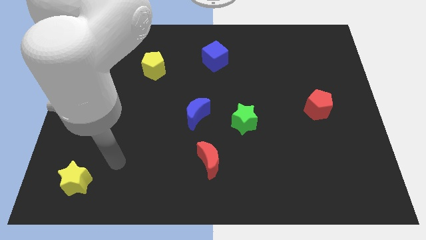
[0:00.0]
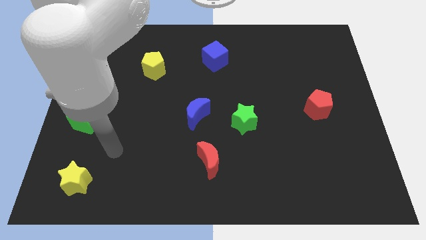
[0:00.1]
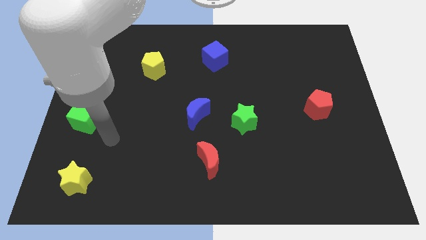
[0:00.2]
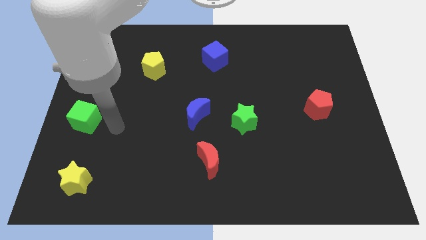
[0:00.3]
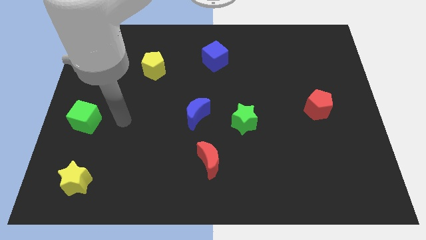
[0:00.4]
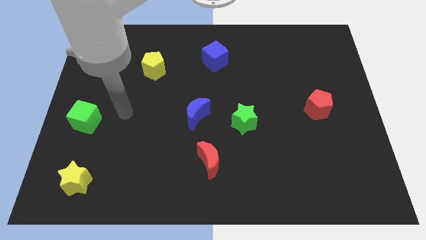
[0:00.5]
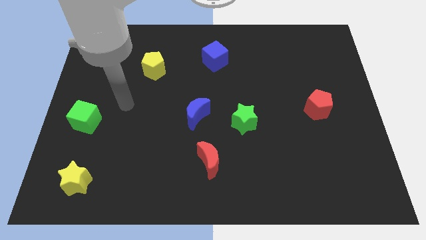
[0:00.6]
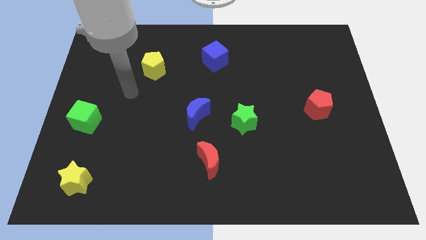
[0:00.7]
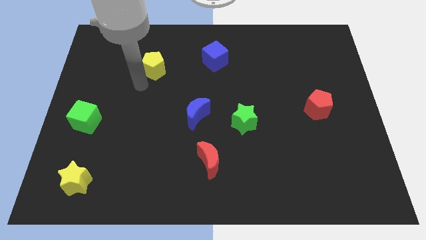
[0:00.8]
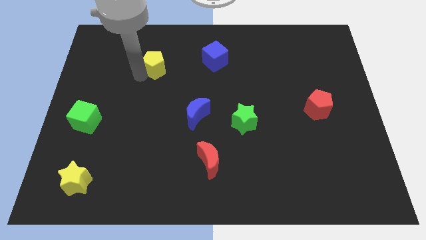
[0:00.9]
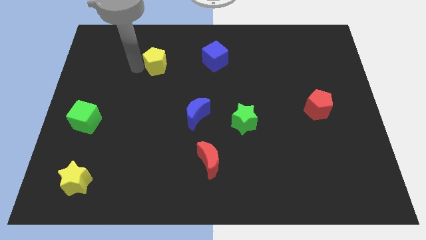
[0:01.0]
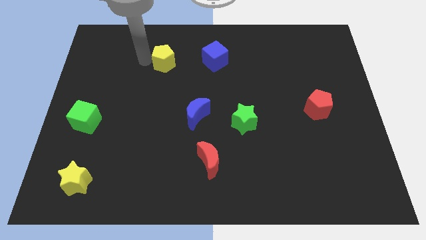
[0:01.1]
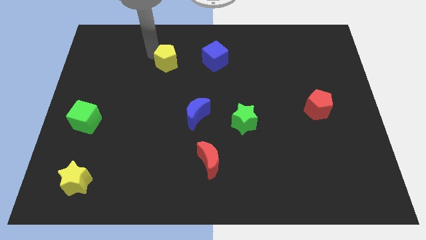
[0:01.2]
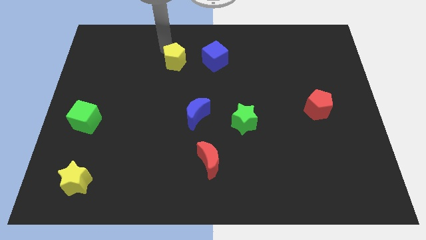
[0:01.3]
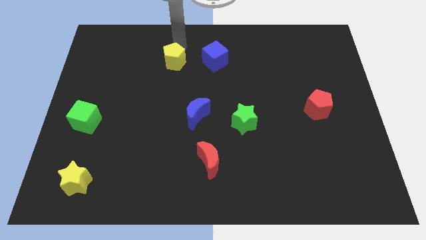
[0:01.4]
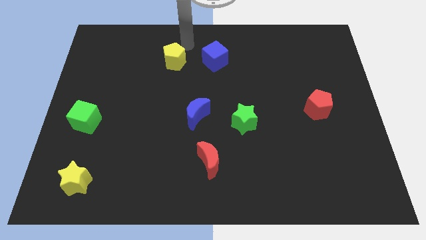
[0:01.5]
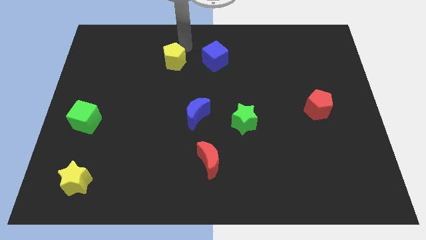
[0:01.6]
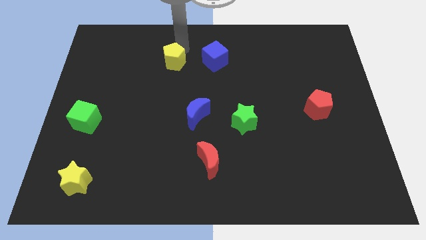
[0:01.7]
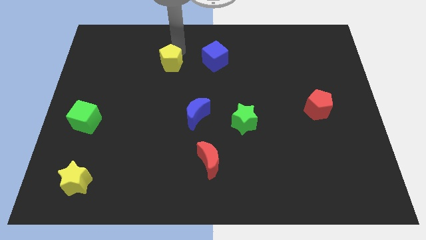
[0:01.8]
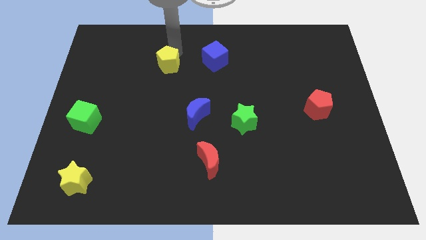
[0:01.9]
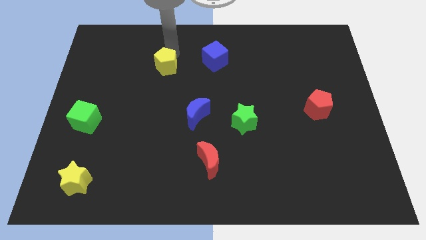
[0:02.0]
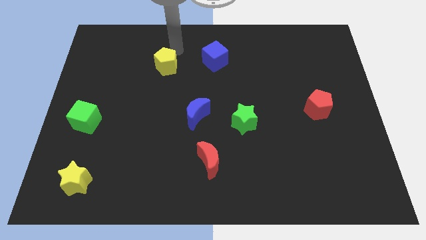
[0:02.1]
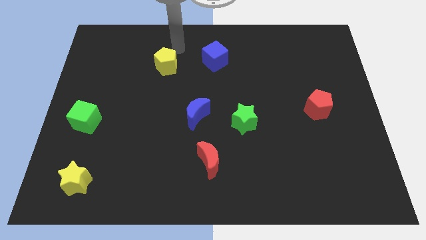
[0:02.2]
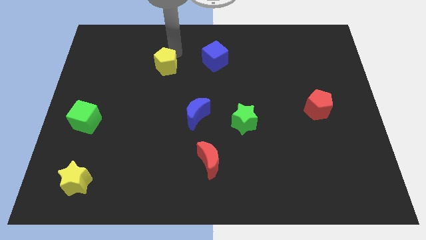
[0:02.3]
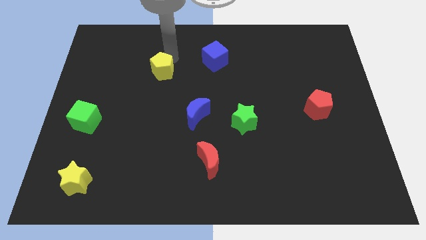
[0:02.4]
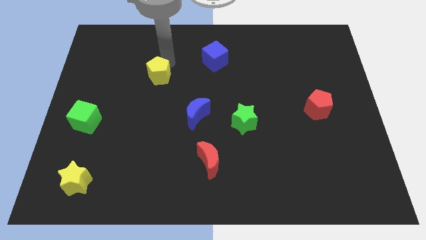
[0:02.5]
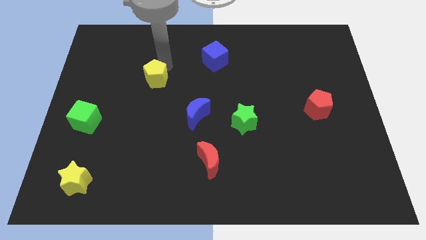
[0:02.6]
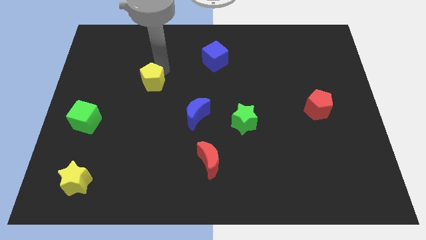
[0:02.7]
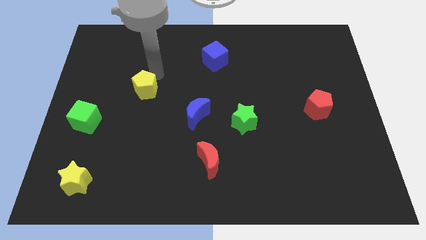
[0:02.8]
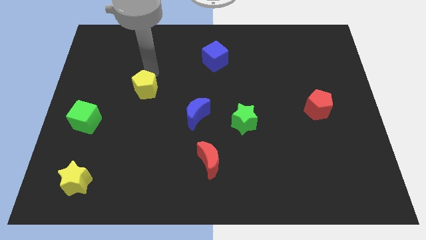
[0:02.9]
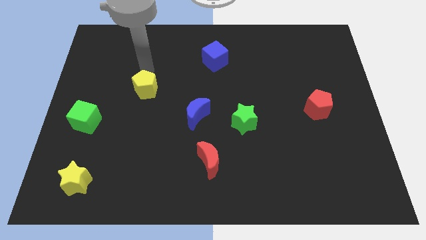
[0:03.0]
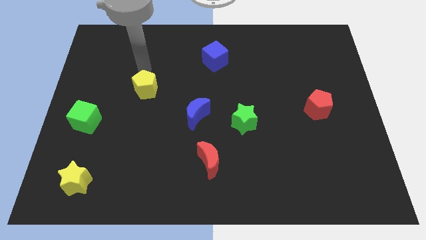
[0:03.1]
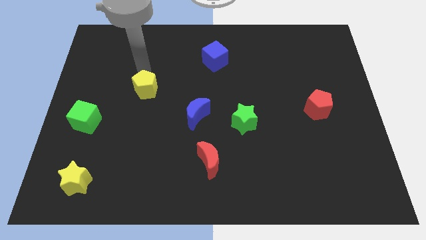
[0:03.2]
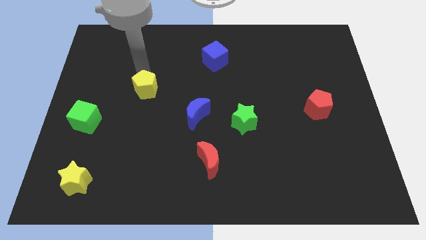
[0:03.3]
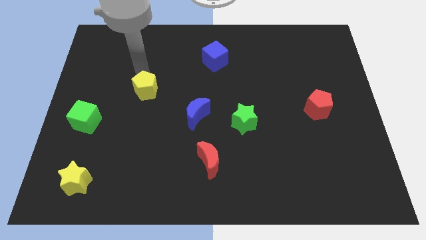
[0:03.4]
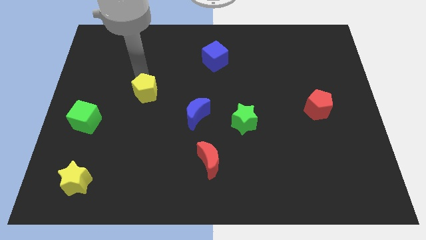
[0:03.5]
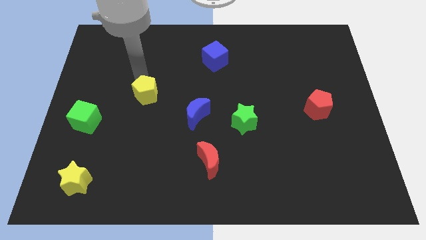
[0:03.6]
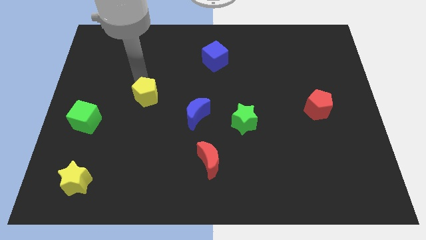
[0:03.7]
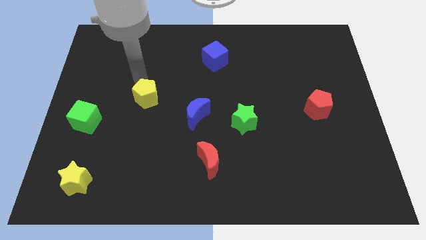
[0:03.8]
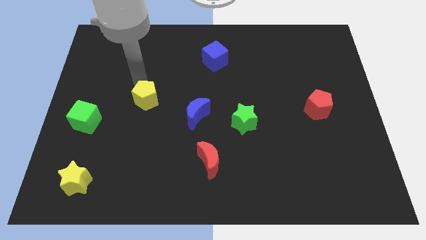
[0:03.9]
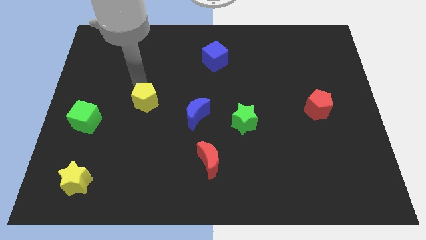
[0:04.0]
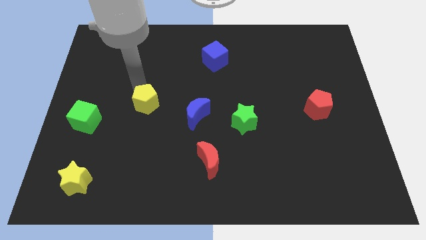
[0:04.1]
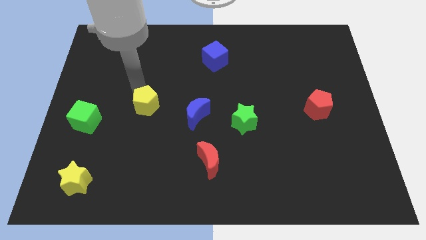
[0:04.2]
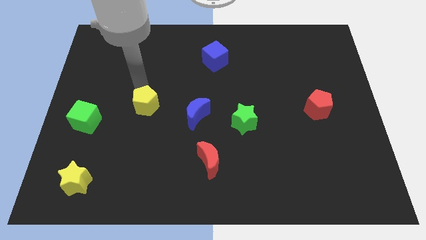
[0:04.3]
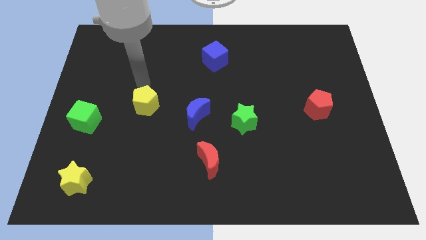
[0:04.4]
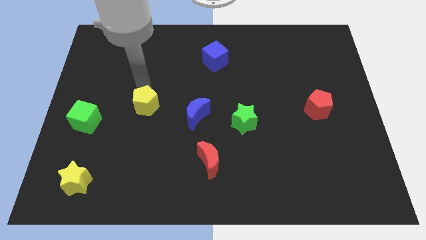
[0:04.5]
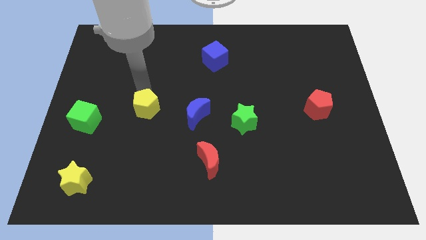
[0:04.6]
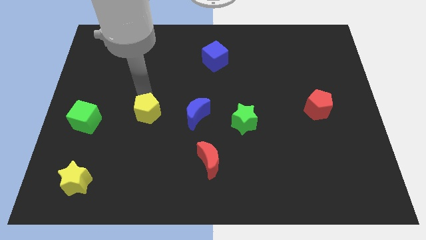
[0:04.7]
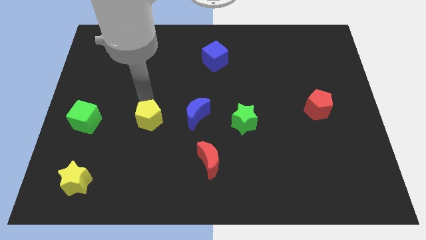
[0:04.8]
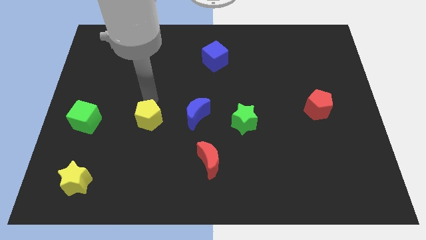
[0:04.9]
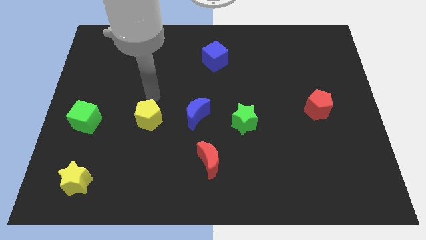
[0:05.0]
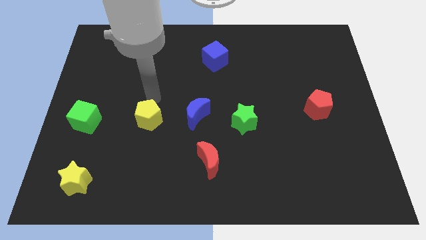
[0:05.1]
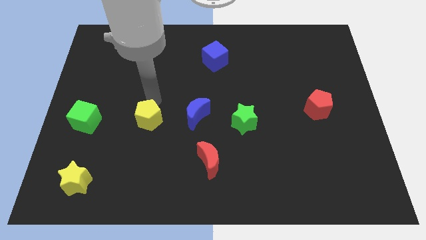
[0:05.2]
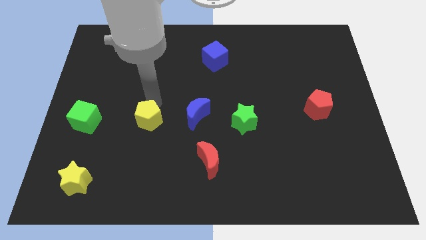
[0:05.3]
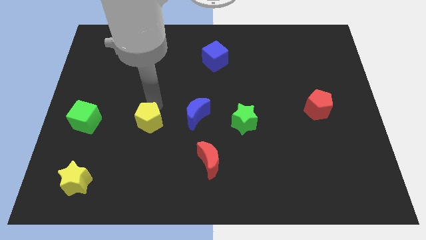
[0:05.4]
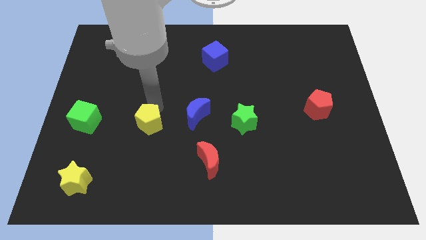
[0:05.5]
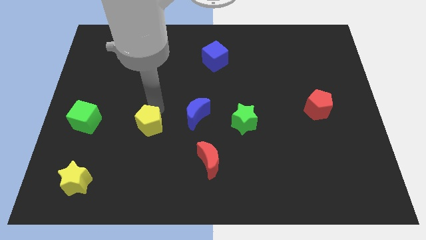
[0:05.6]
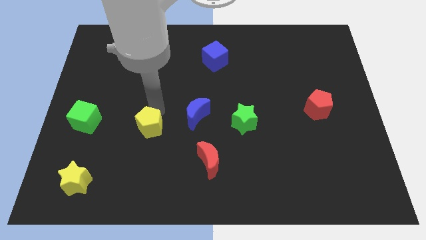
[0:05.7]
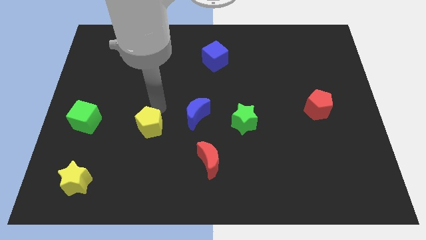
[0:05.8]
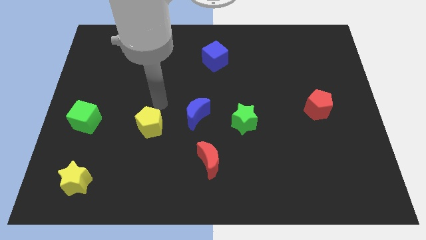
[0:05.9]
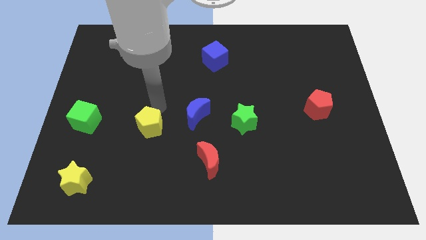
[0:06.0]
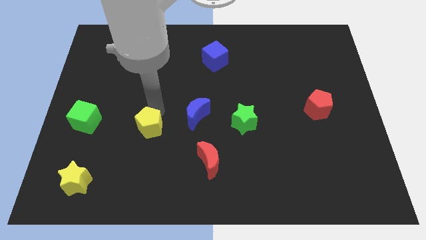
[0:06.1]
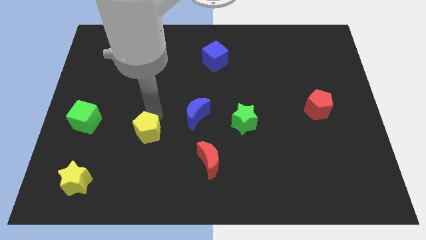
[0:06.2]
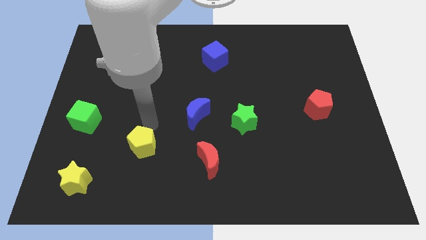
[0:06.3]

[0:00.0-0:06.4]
push the yellow pentagon down

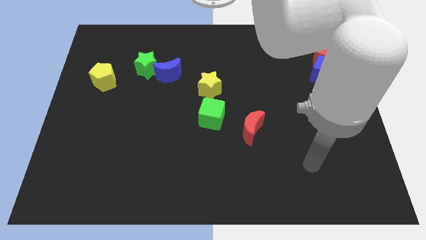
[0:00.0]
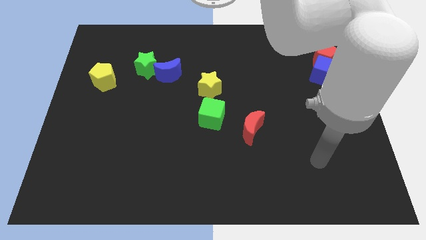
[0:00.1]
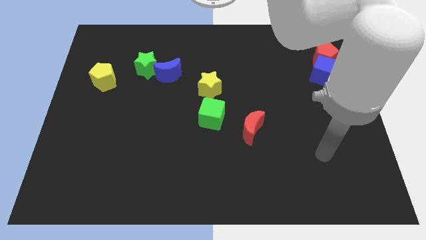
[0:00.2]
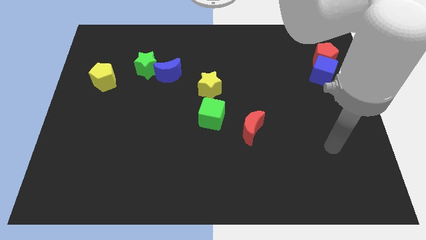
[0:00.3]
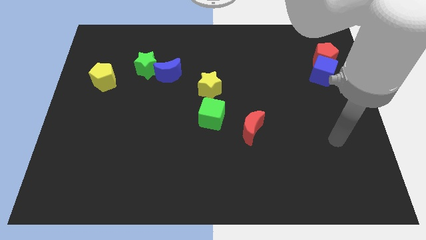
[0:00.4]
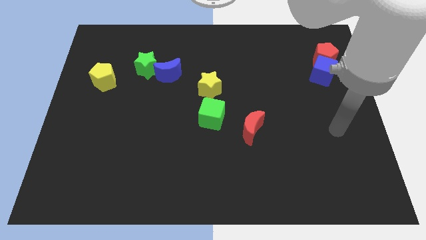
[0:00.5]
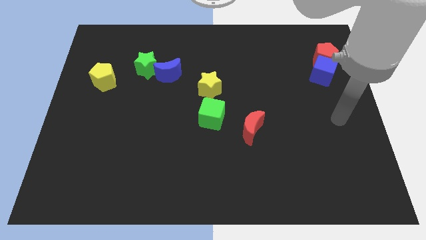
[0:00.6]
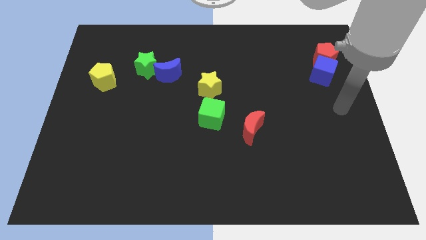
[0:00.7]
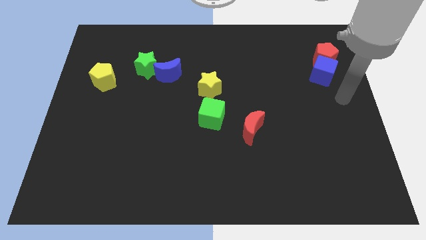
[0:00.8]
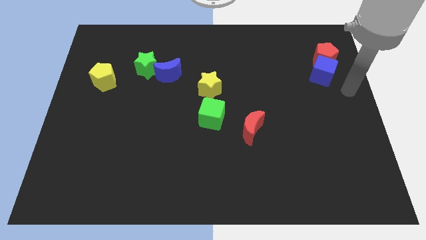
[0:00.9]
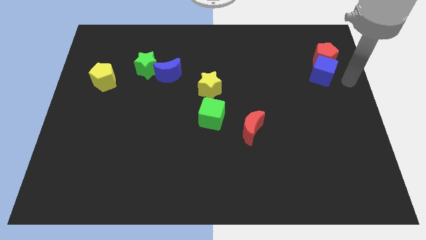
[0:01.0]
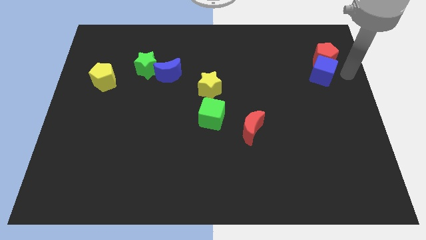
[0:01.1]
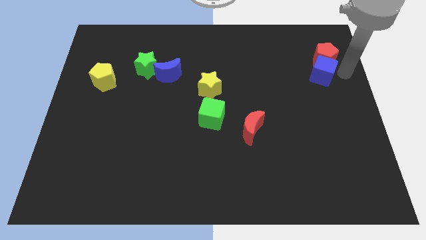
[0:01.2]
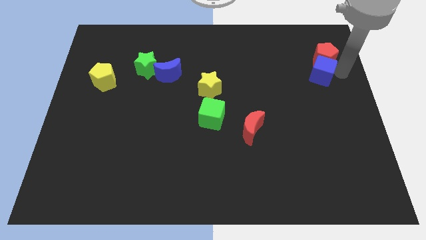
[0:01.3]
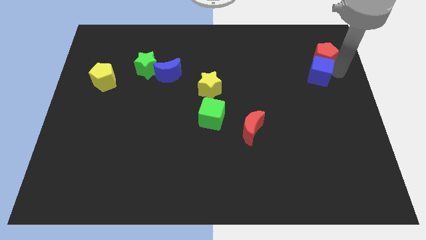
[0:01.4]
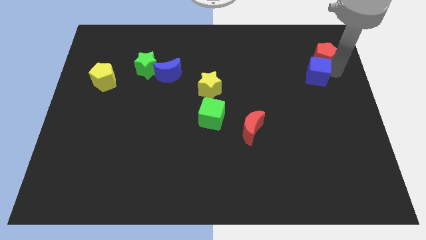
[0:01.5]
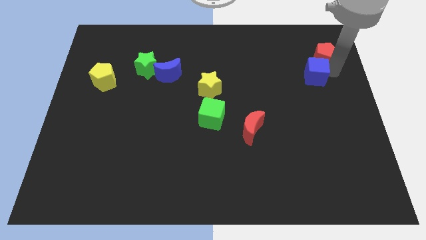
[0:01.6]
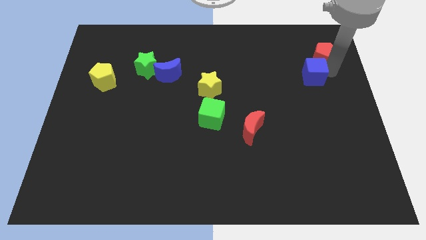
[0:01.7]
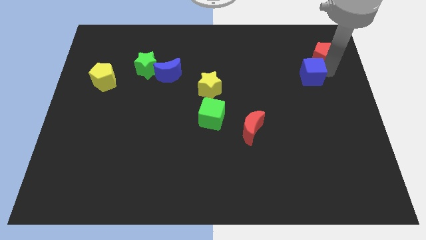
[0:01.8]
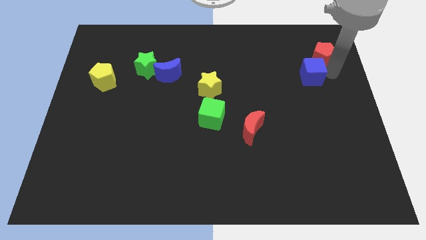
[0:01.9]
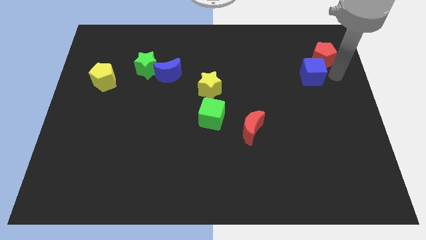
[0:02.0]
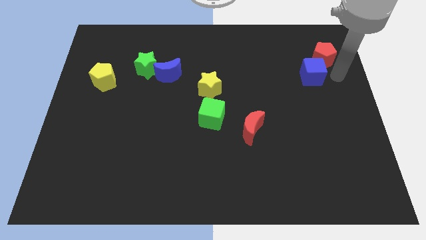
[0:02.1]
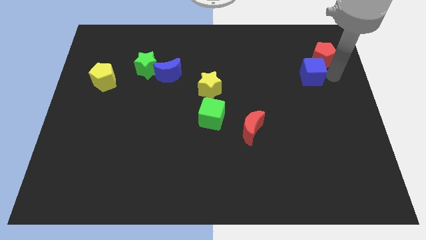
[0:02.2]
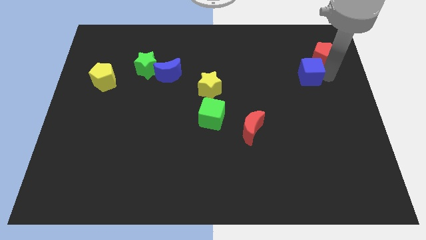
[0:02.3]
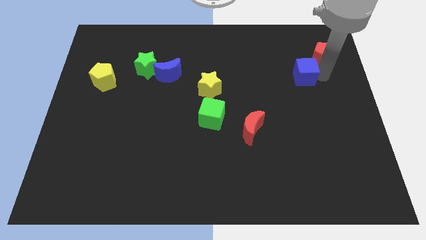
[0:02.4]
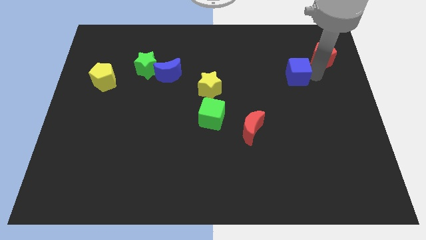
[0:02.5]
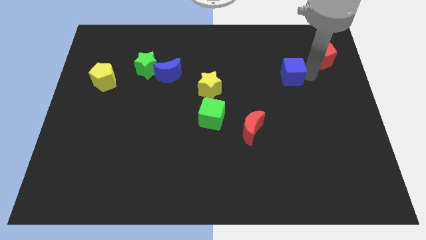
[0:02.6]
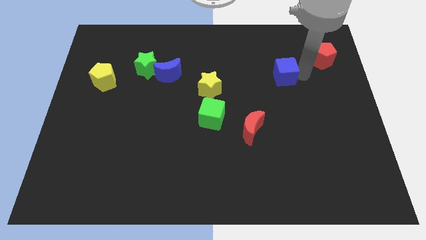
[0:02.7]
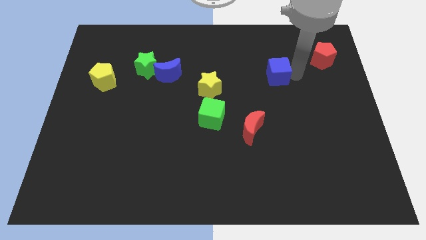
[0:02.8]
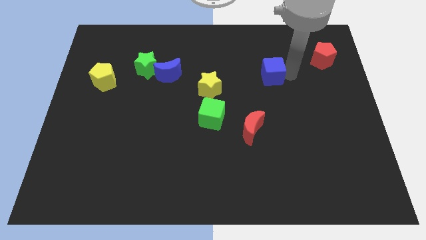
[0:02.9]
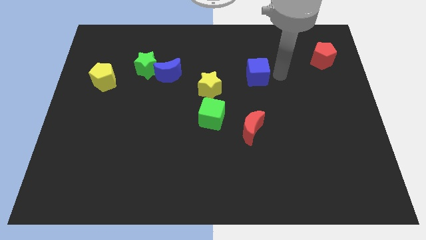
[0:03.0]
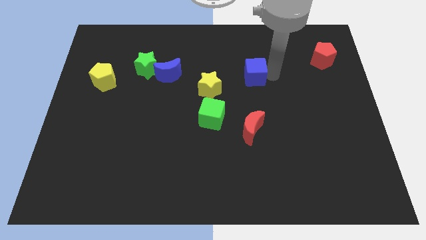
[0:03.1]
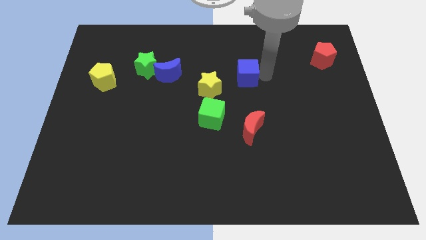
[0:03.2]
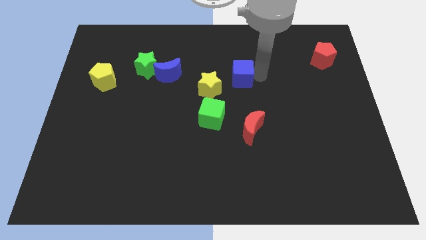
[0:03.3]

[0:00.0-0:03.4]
slide the blue cube to the left
